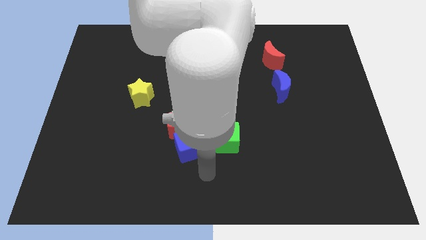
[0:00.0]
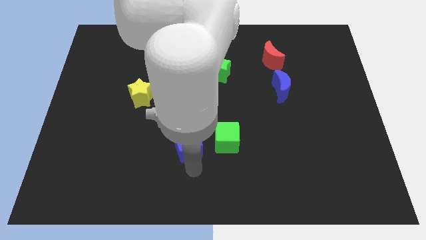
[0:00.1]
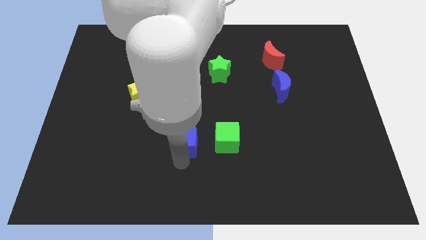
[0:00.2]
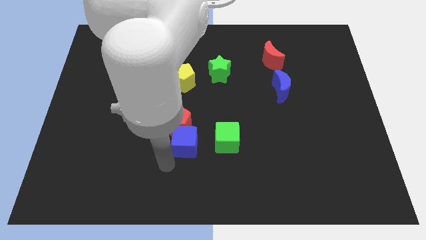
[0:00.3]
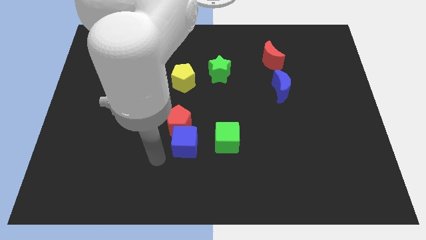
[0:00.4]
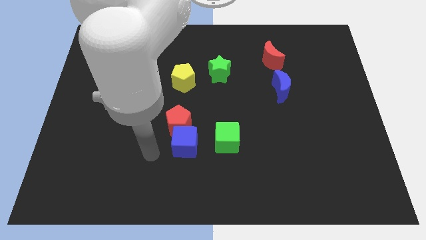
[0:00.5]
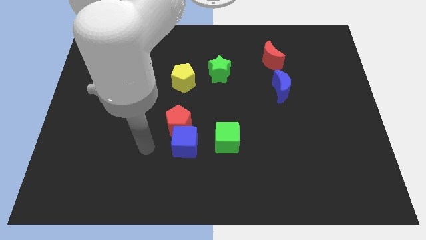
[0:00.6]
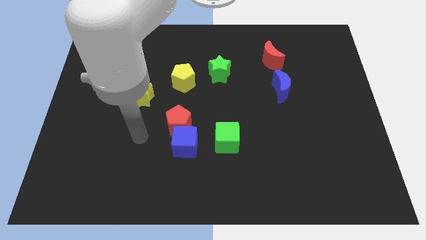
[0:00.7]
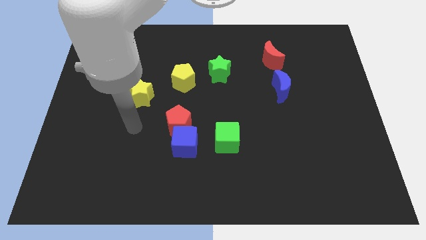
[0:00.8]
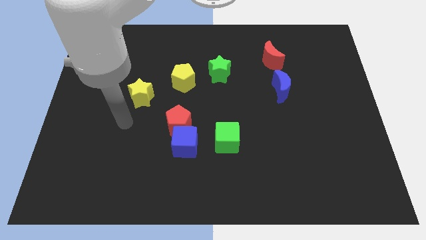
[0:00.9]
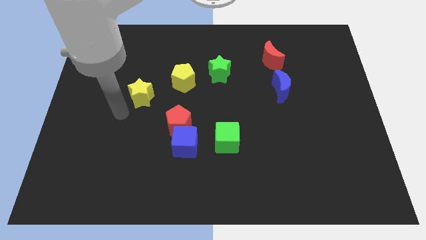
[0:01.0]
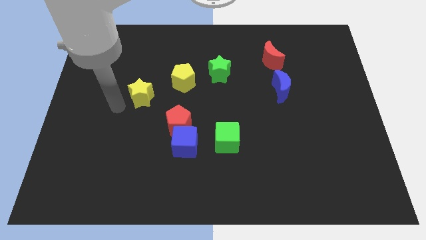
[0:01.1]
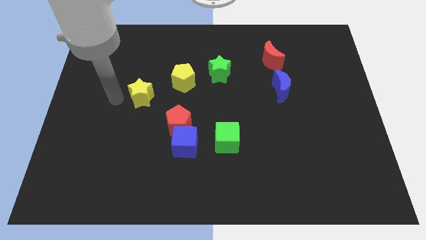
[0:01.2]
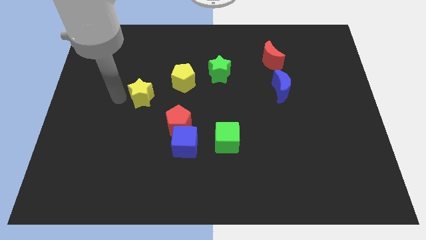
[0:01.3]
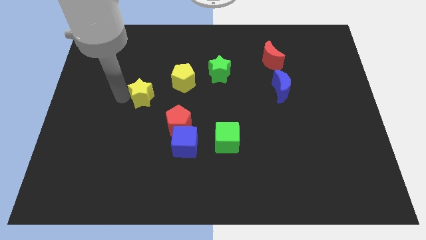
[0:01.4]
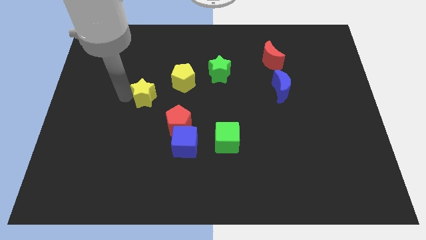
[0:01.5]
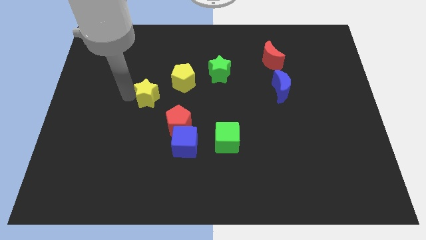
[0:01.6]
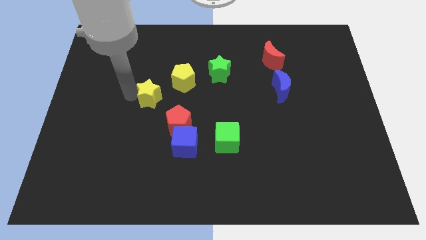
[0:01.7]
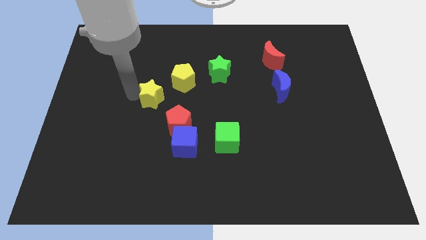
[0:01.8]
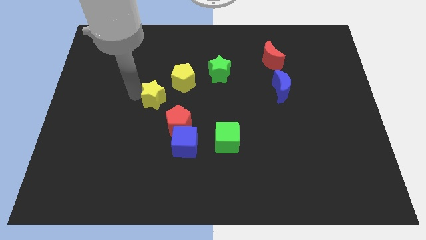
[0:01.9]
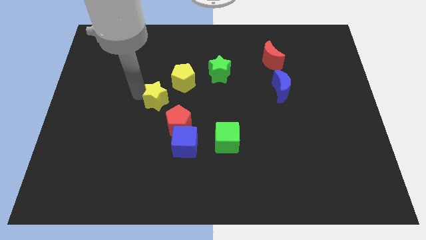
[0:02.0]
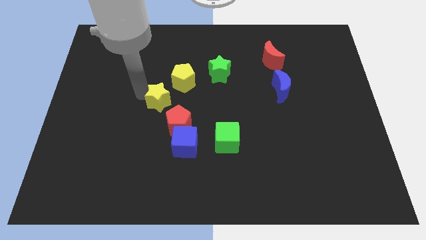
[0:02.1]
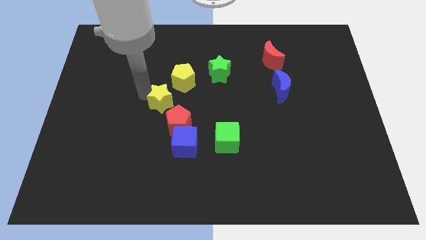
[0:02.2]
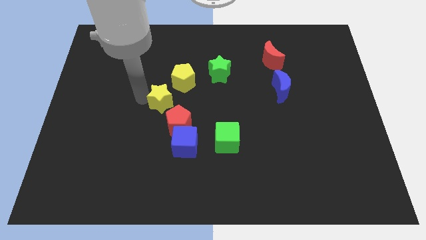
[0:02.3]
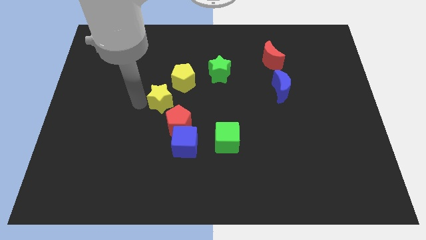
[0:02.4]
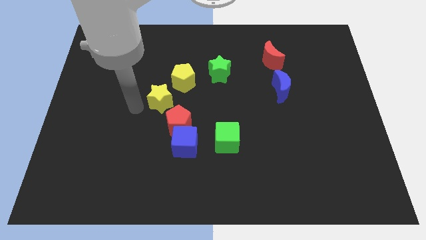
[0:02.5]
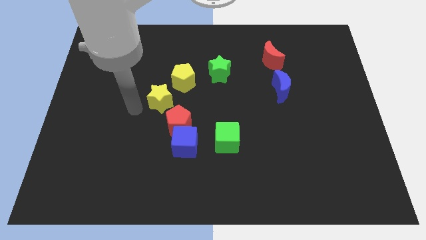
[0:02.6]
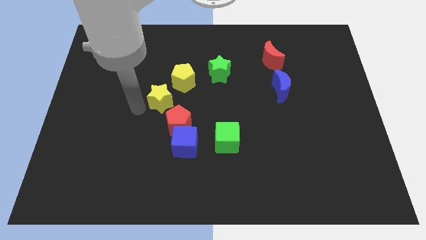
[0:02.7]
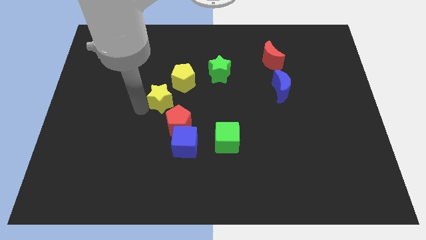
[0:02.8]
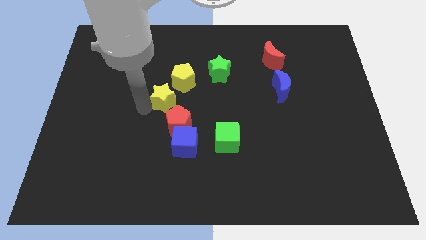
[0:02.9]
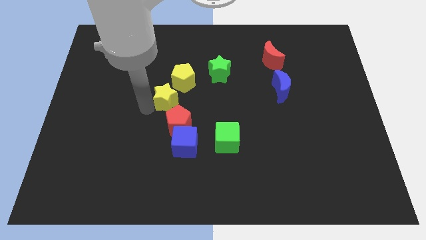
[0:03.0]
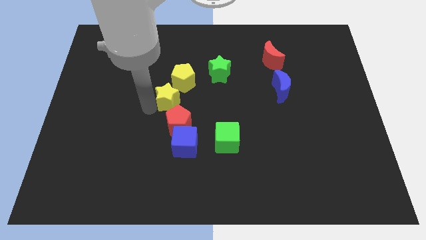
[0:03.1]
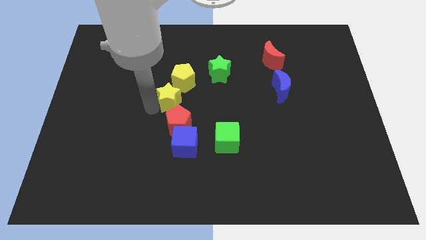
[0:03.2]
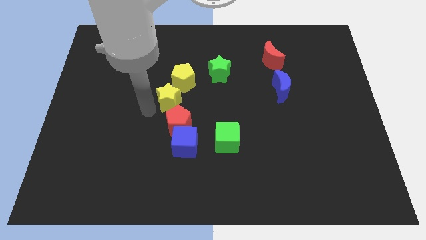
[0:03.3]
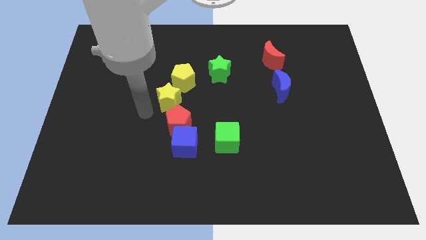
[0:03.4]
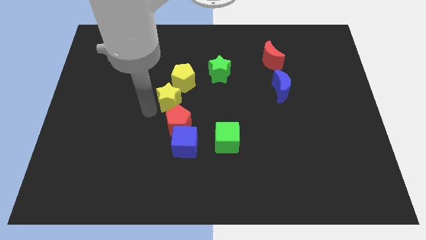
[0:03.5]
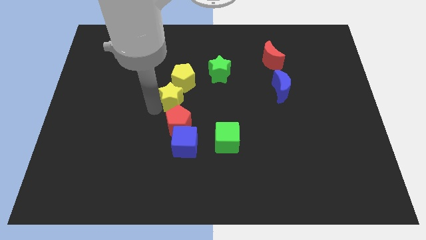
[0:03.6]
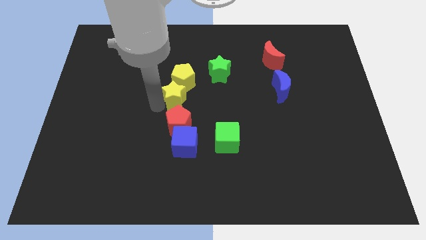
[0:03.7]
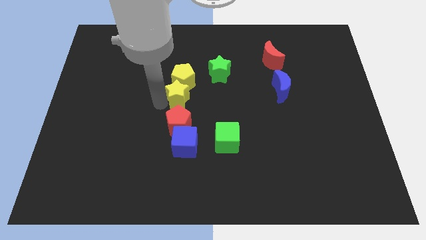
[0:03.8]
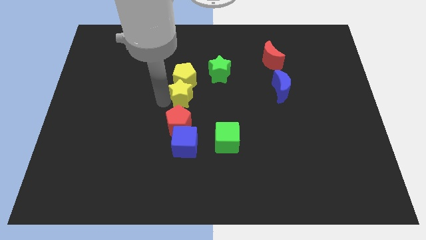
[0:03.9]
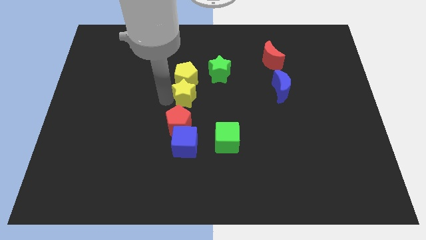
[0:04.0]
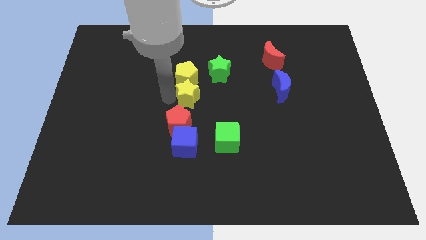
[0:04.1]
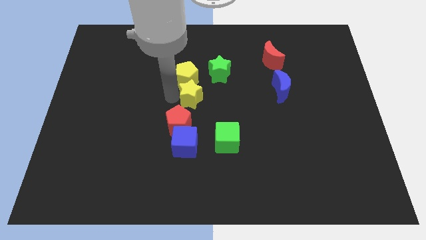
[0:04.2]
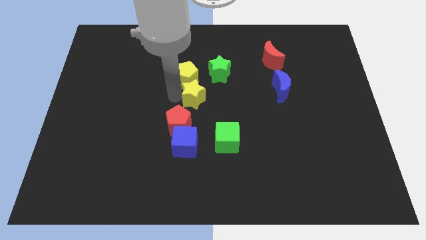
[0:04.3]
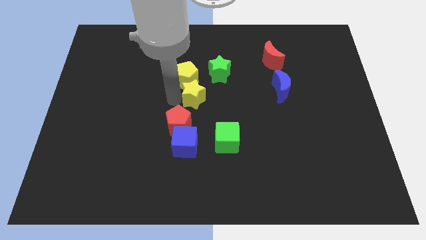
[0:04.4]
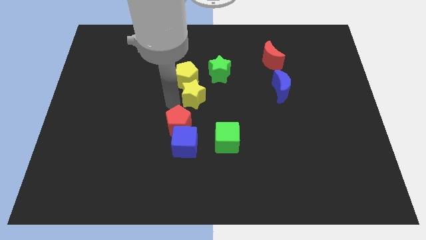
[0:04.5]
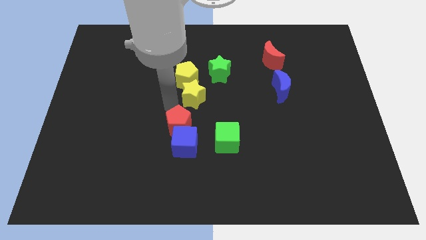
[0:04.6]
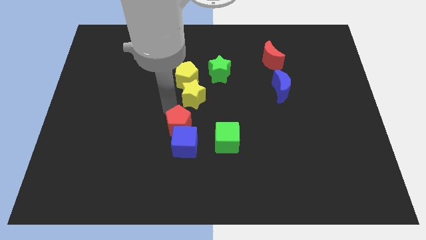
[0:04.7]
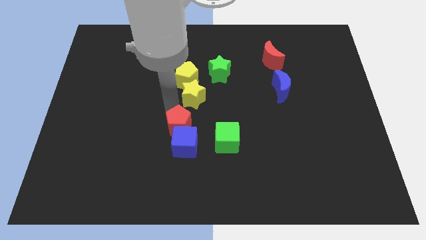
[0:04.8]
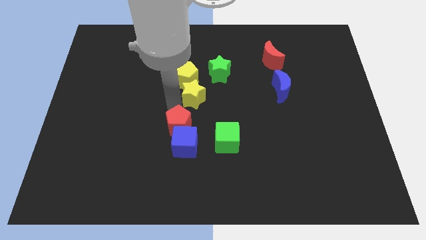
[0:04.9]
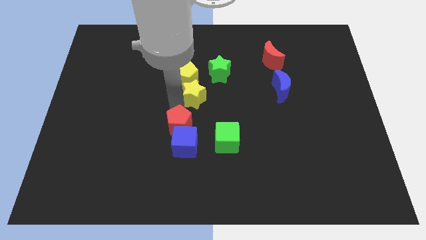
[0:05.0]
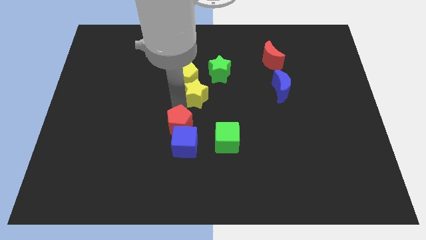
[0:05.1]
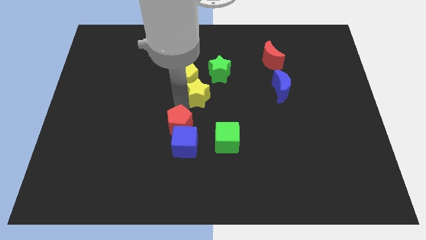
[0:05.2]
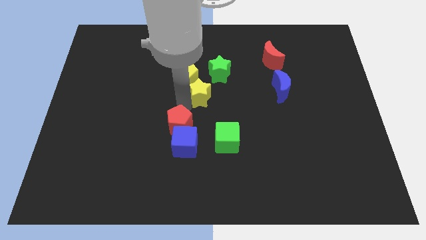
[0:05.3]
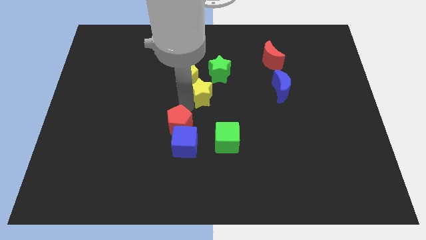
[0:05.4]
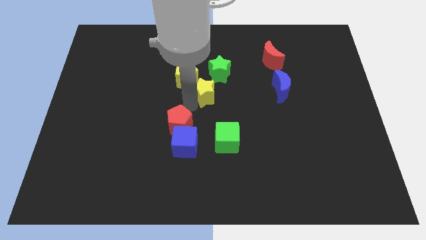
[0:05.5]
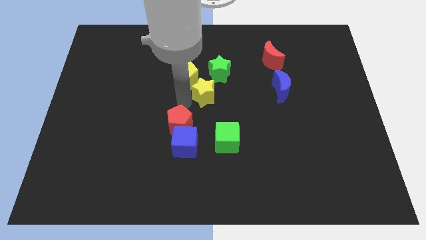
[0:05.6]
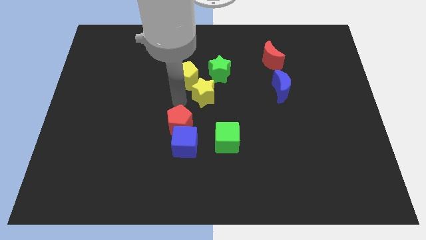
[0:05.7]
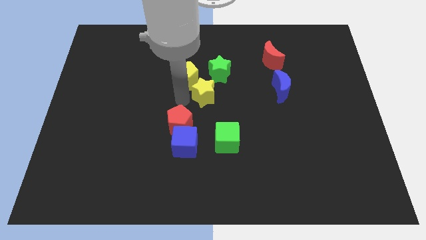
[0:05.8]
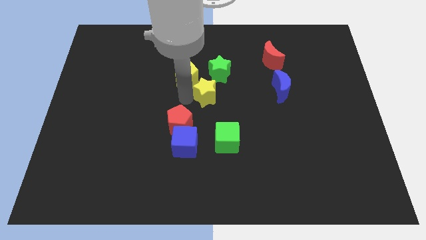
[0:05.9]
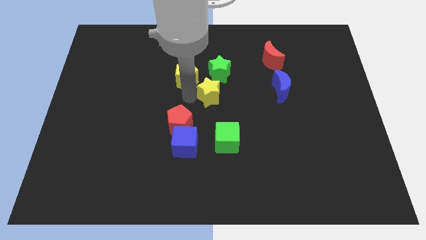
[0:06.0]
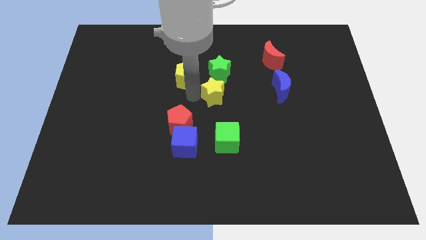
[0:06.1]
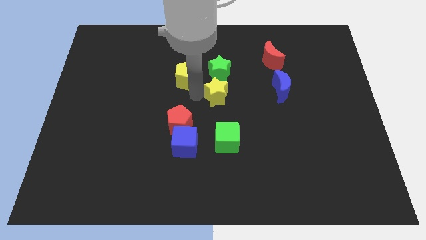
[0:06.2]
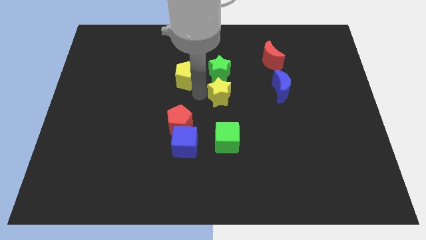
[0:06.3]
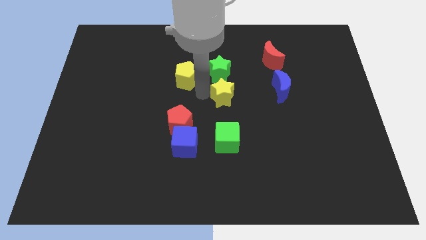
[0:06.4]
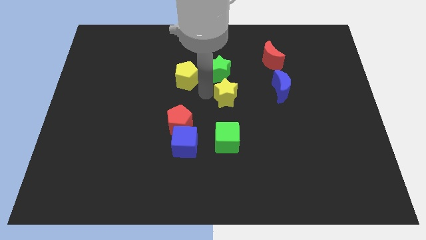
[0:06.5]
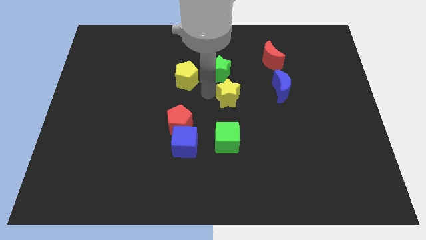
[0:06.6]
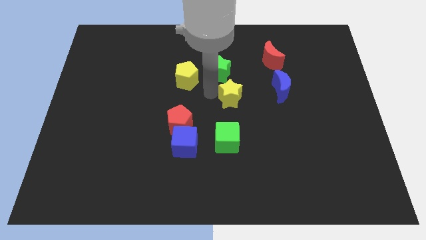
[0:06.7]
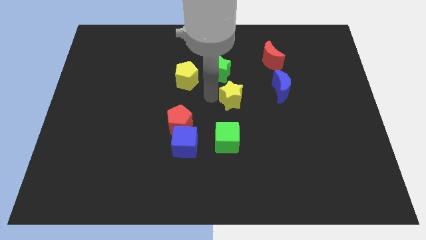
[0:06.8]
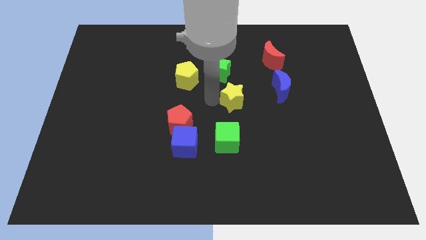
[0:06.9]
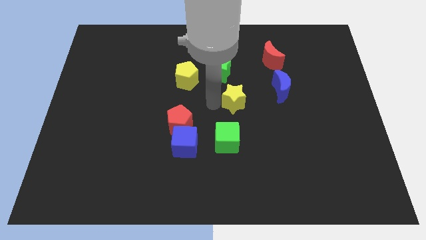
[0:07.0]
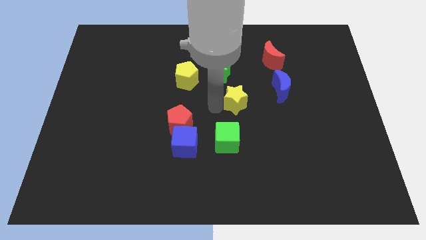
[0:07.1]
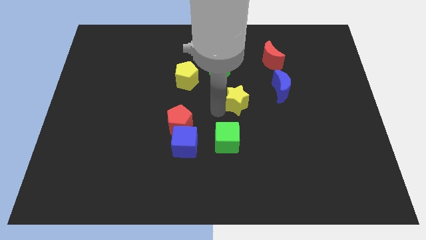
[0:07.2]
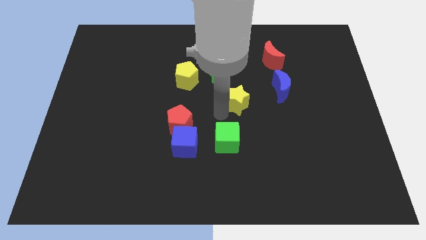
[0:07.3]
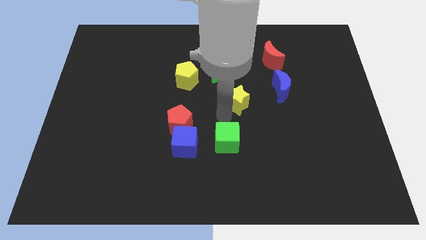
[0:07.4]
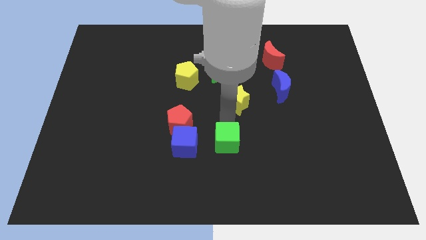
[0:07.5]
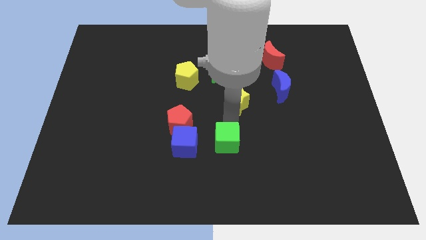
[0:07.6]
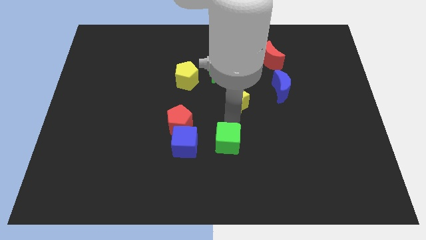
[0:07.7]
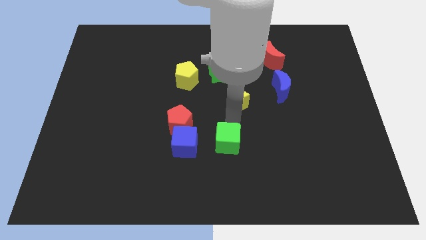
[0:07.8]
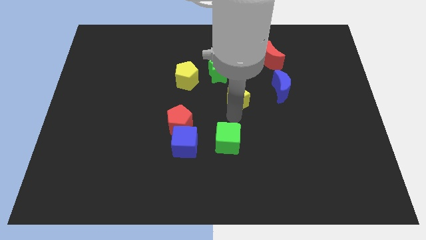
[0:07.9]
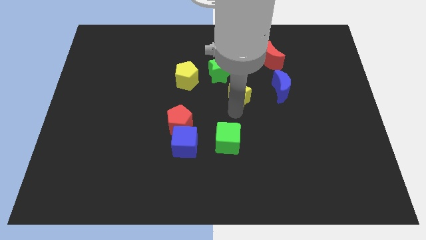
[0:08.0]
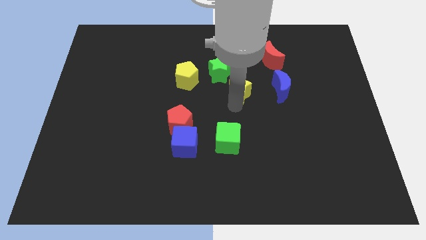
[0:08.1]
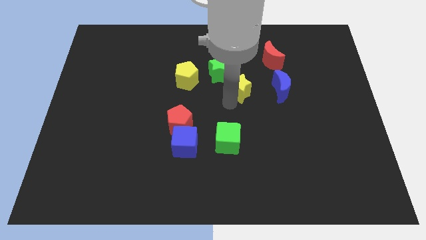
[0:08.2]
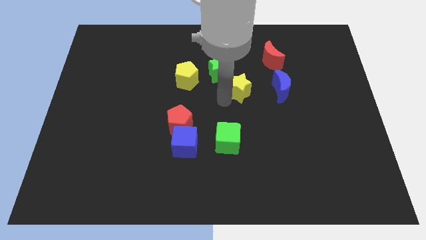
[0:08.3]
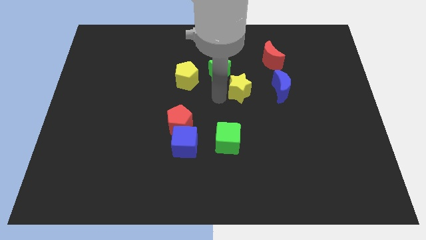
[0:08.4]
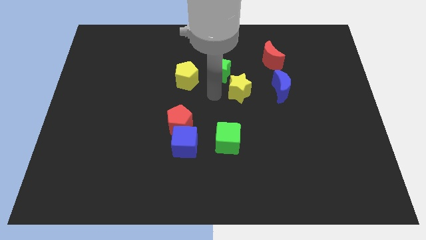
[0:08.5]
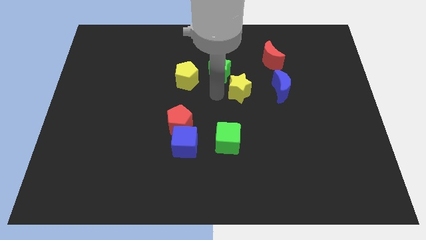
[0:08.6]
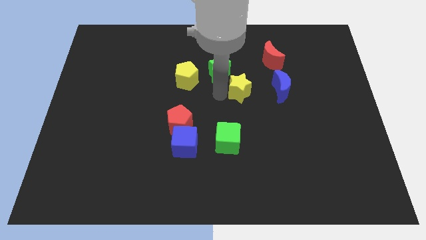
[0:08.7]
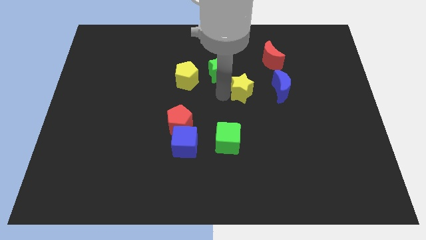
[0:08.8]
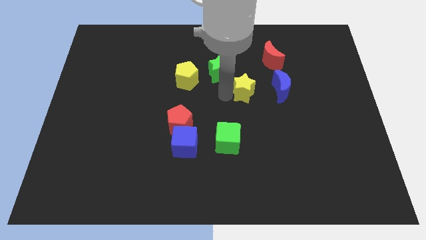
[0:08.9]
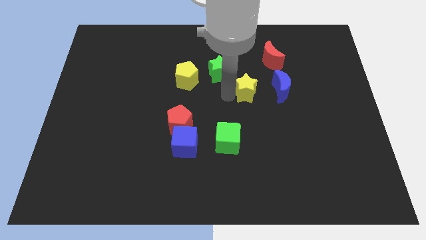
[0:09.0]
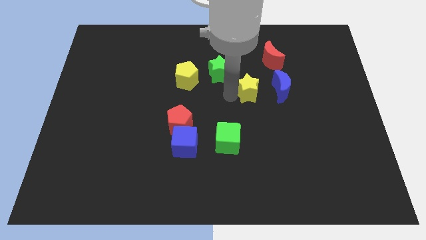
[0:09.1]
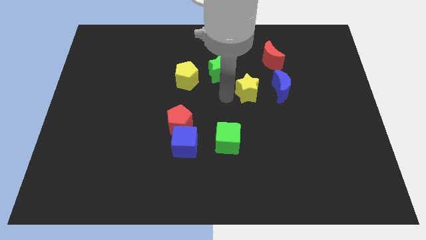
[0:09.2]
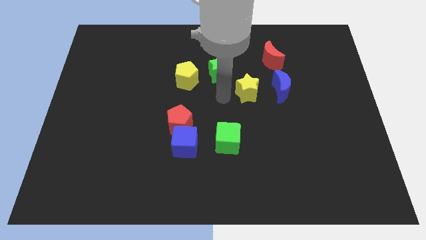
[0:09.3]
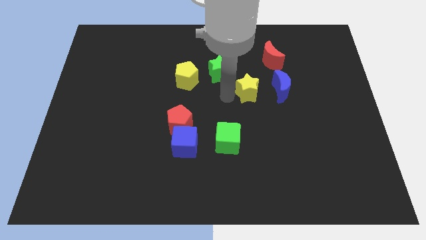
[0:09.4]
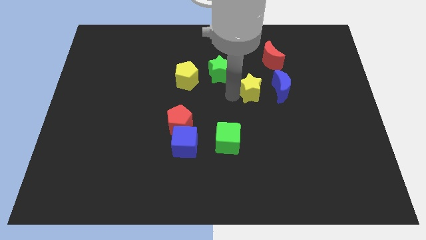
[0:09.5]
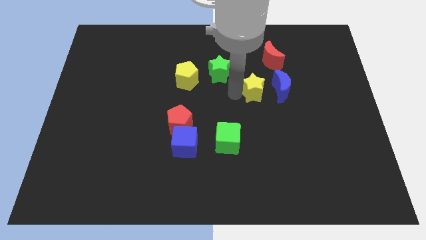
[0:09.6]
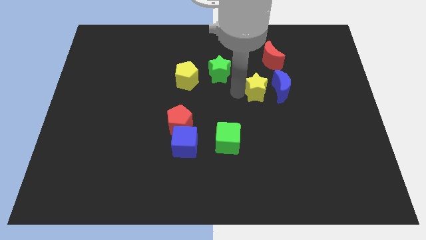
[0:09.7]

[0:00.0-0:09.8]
push the yellow star close to the blue moon
